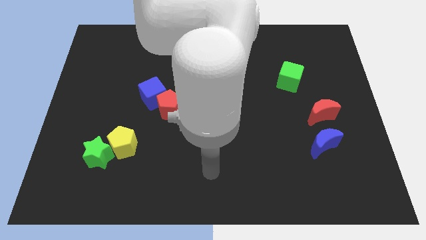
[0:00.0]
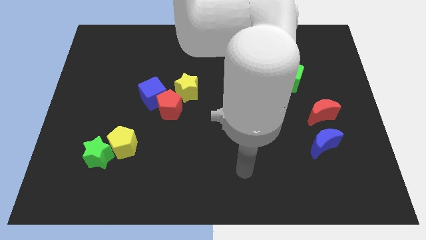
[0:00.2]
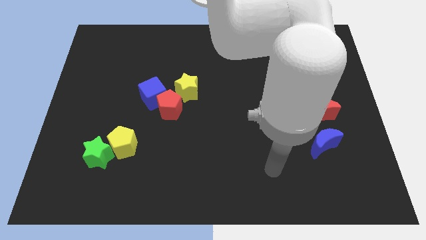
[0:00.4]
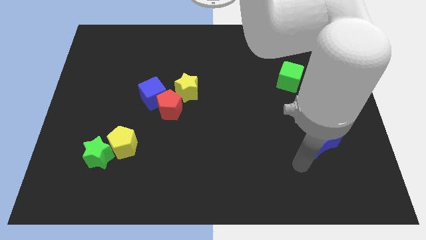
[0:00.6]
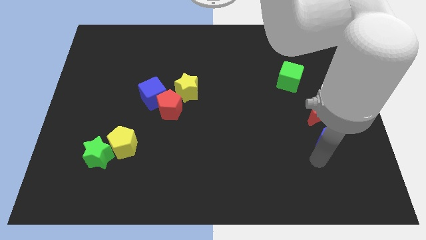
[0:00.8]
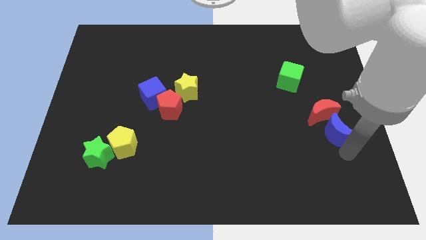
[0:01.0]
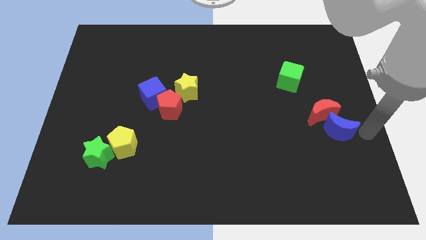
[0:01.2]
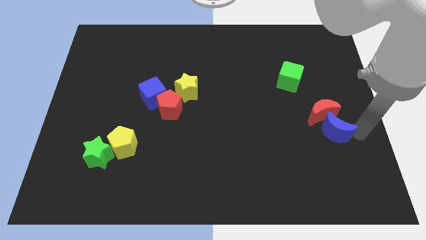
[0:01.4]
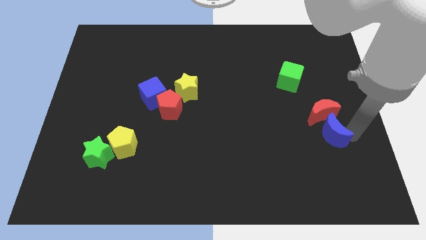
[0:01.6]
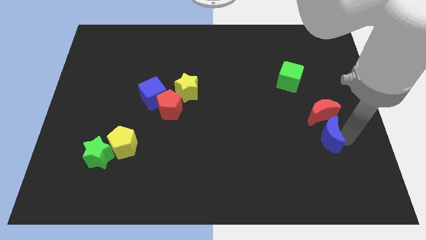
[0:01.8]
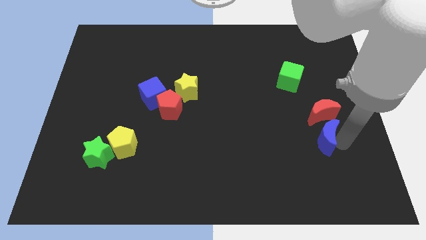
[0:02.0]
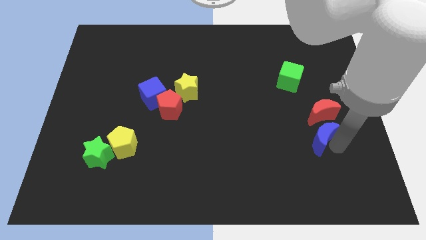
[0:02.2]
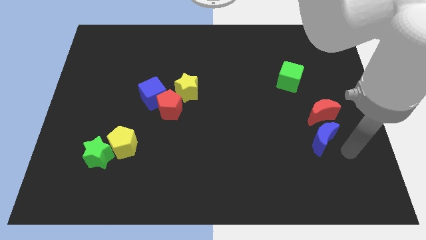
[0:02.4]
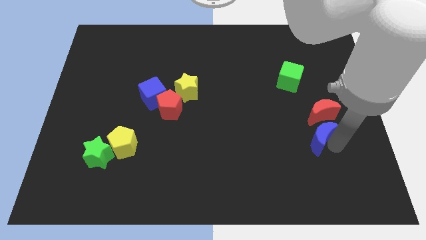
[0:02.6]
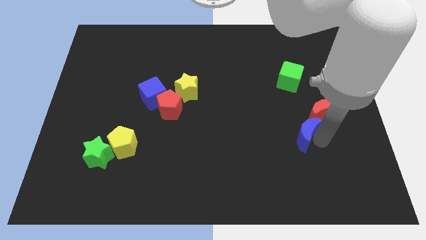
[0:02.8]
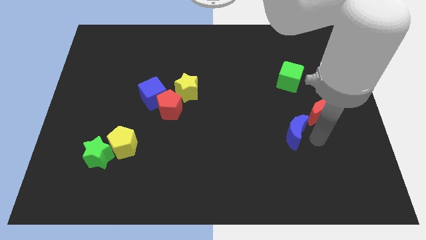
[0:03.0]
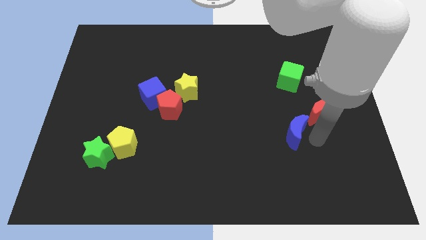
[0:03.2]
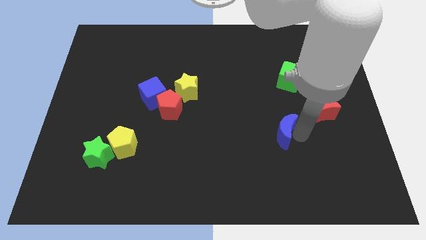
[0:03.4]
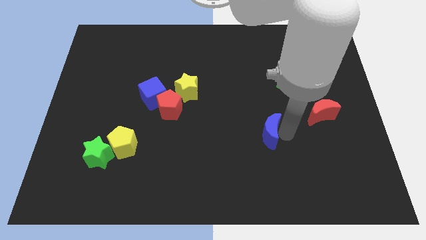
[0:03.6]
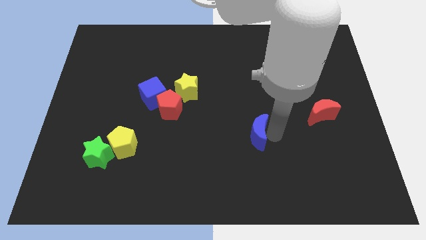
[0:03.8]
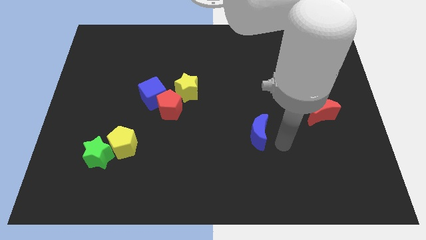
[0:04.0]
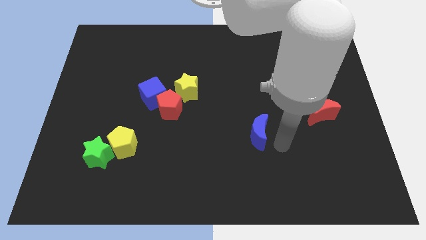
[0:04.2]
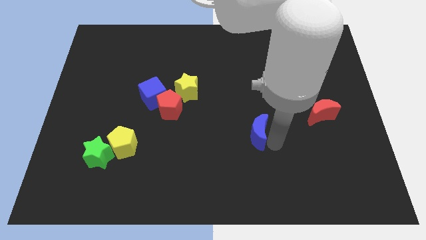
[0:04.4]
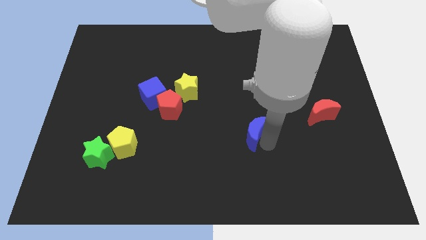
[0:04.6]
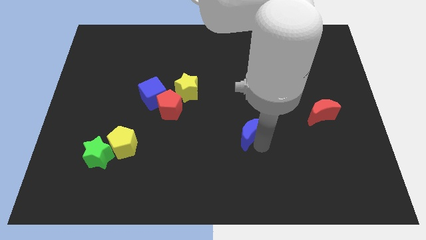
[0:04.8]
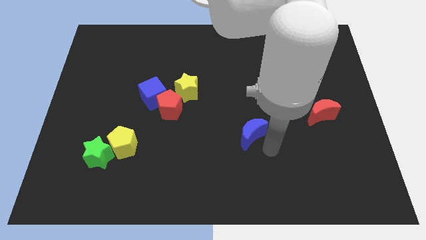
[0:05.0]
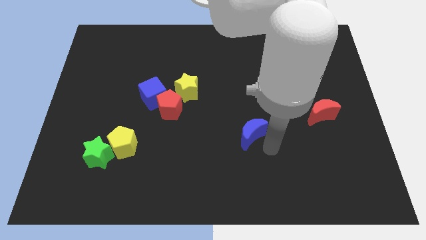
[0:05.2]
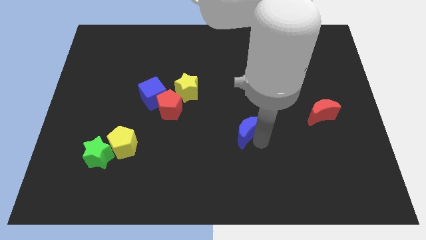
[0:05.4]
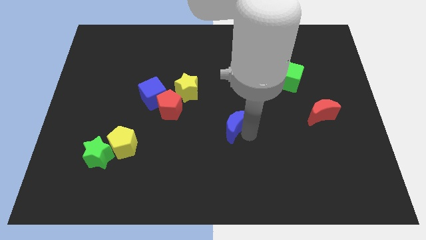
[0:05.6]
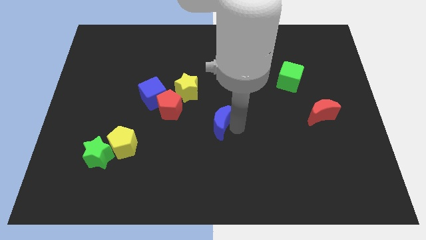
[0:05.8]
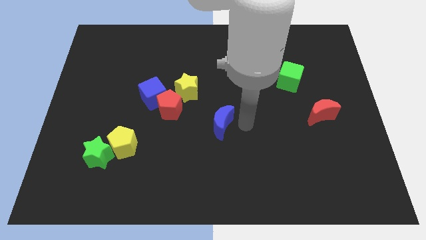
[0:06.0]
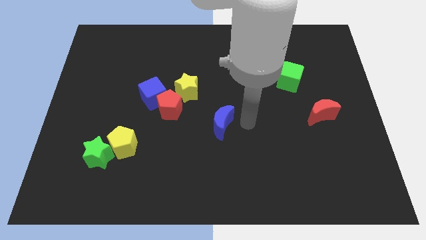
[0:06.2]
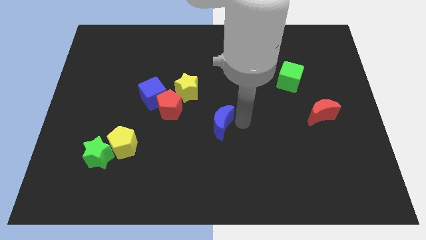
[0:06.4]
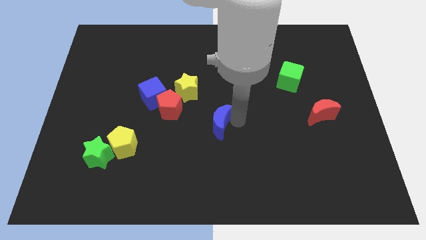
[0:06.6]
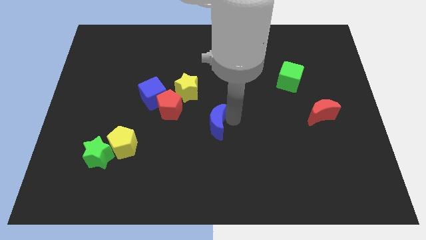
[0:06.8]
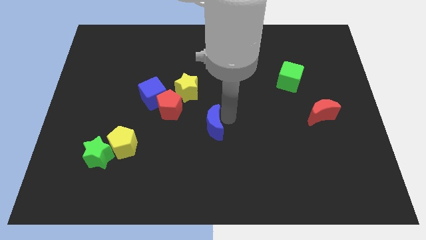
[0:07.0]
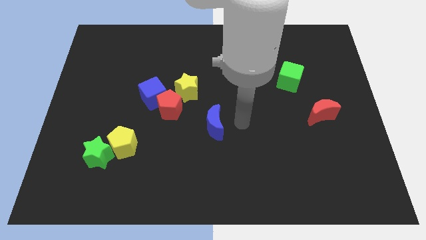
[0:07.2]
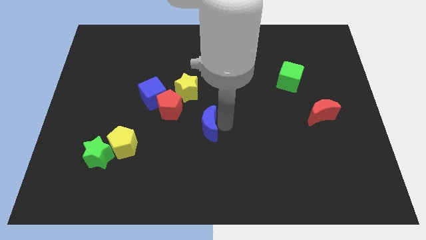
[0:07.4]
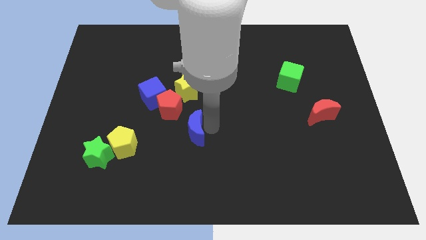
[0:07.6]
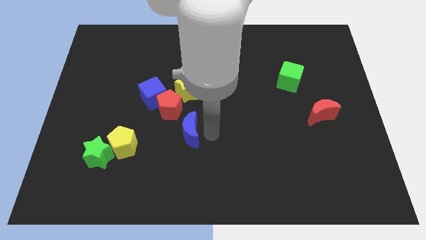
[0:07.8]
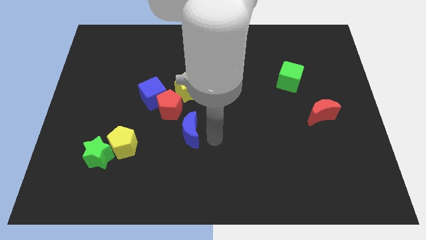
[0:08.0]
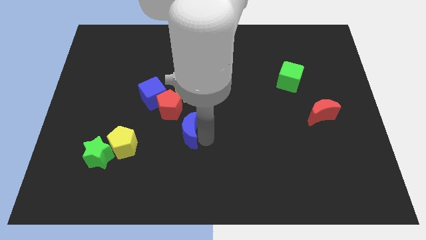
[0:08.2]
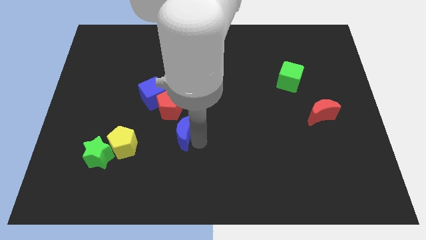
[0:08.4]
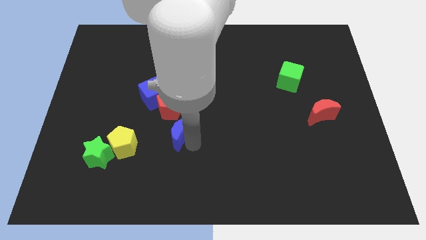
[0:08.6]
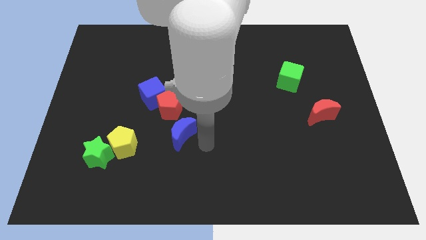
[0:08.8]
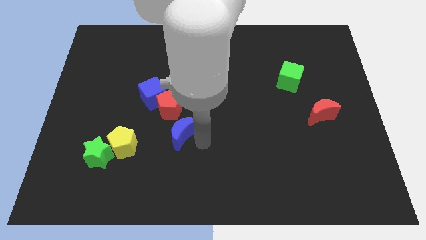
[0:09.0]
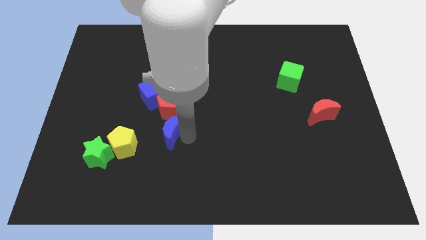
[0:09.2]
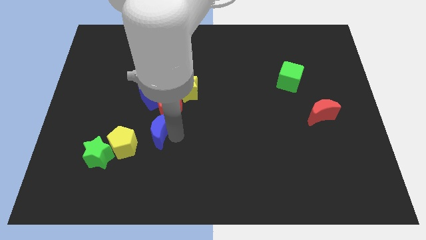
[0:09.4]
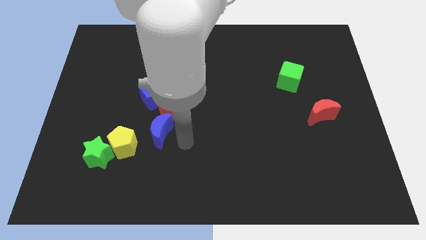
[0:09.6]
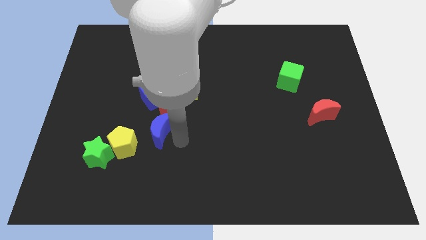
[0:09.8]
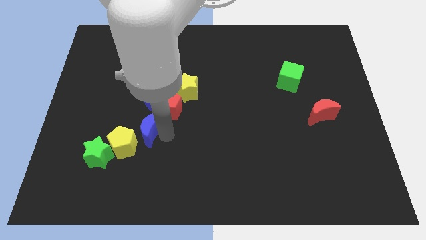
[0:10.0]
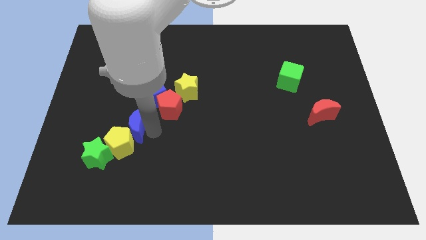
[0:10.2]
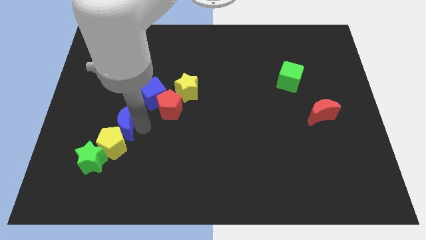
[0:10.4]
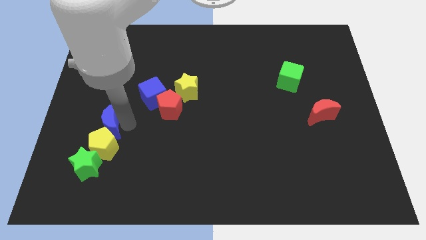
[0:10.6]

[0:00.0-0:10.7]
put the blue moon diagonally up and to the left of the yellow pentagon

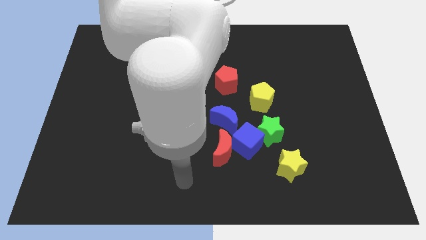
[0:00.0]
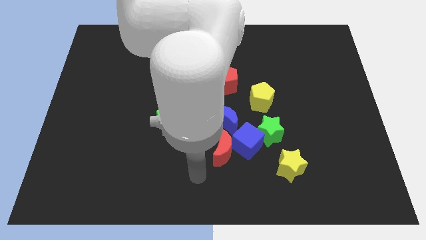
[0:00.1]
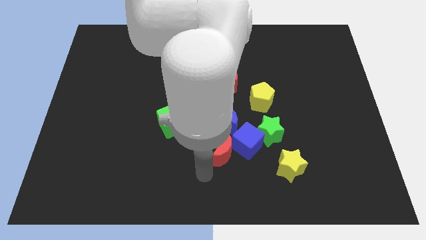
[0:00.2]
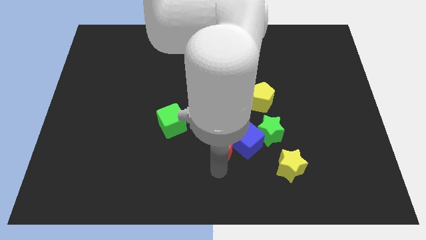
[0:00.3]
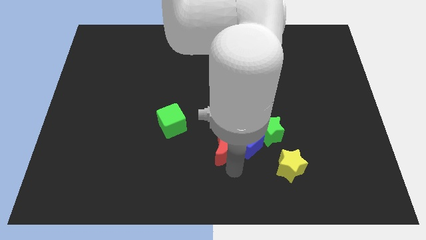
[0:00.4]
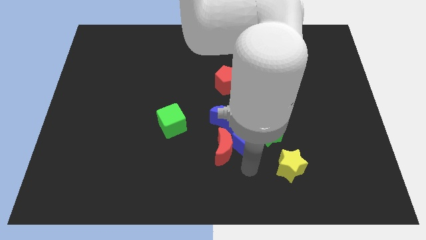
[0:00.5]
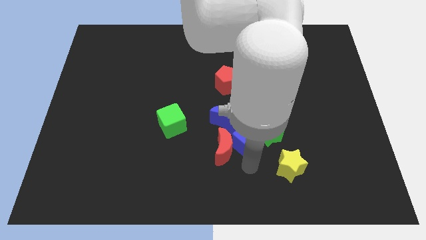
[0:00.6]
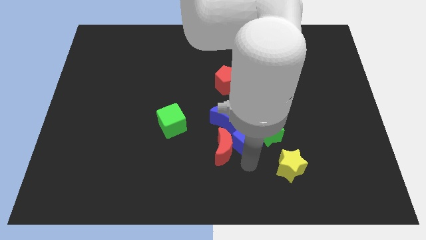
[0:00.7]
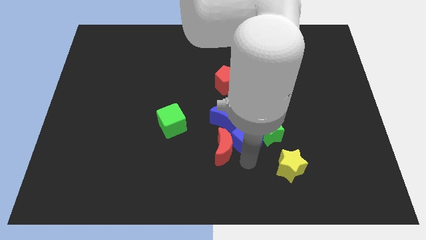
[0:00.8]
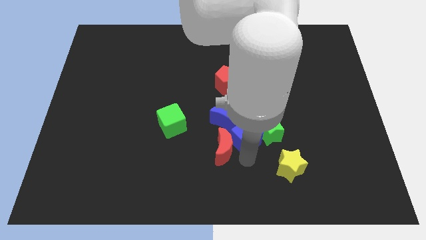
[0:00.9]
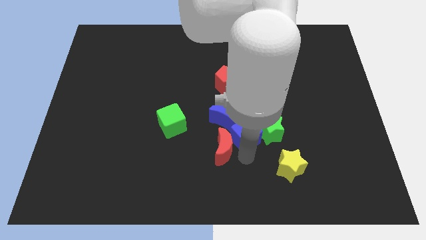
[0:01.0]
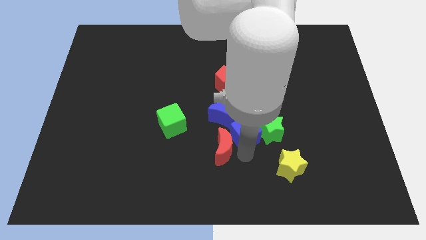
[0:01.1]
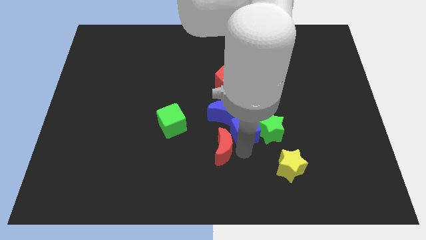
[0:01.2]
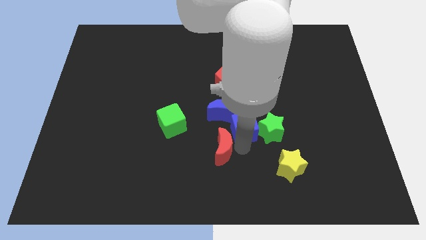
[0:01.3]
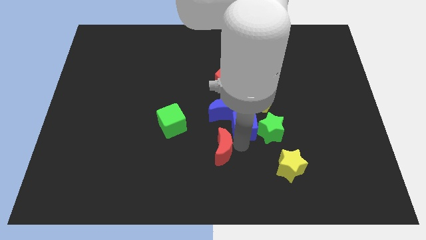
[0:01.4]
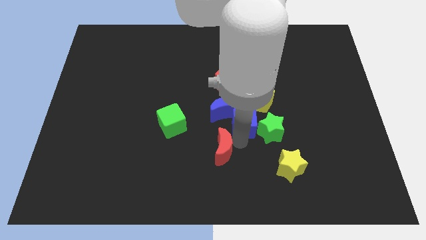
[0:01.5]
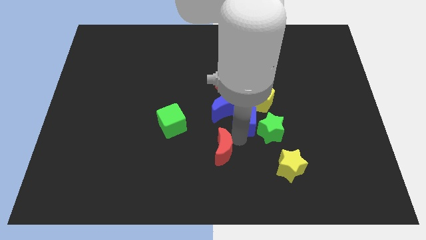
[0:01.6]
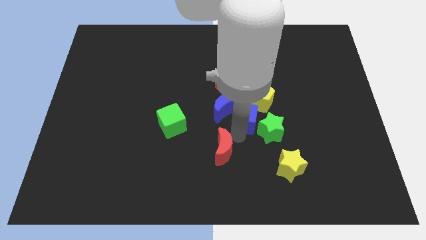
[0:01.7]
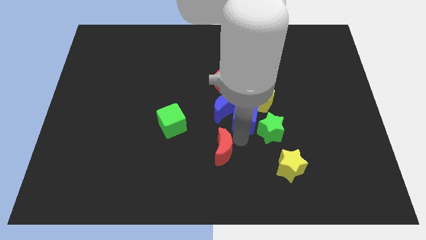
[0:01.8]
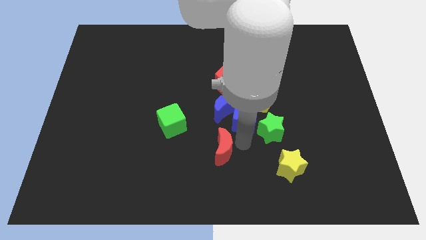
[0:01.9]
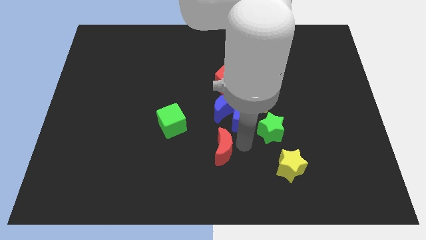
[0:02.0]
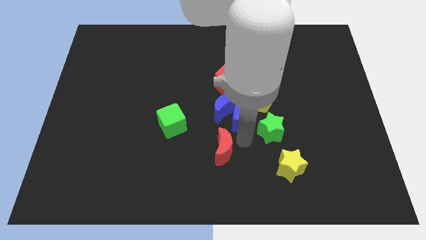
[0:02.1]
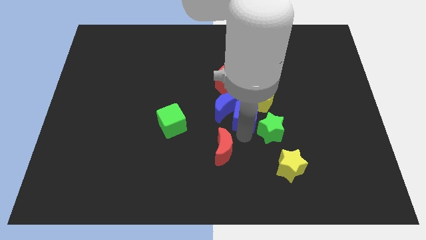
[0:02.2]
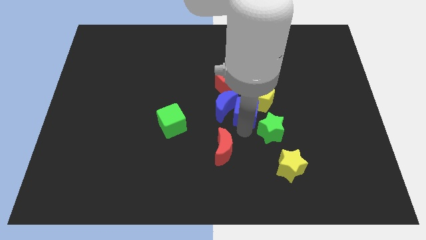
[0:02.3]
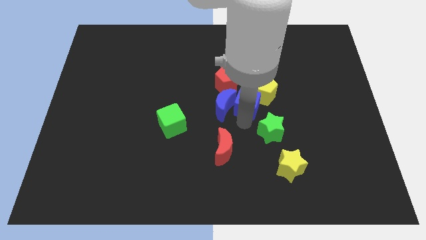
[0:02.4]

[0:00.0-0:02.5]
move the blue cube to the top side of the green star
